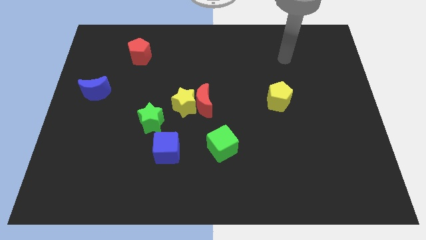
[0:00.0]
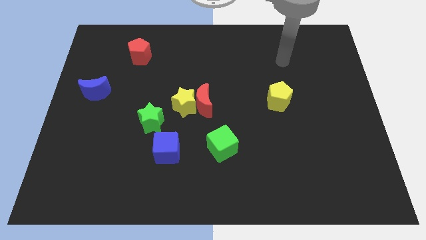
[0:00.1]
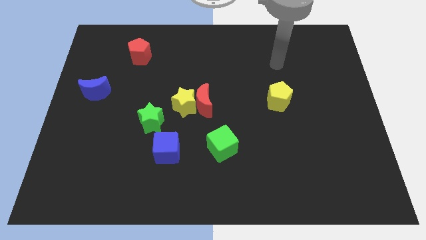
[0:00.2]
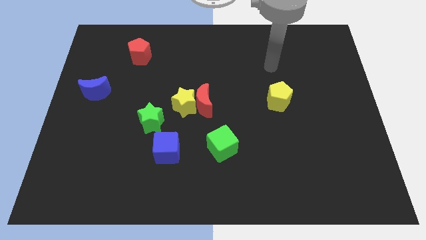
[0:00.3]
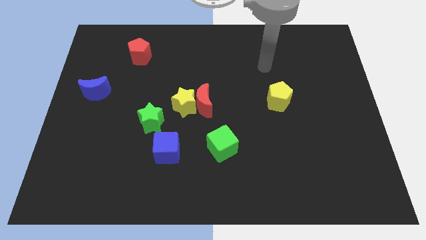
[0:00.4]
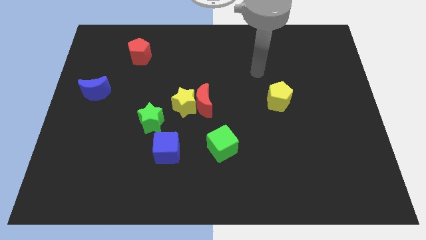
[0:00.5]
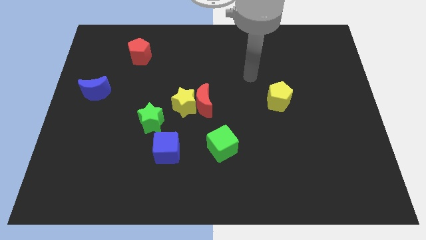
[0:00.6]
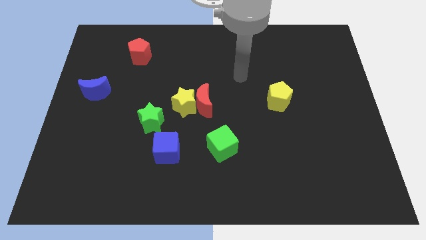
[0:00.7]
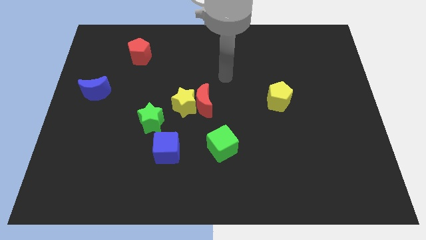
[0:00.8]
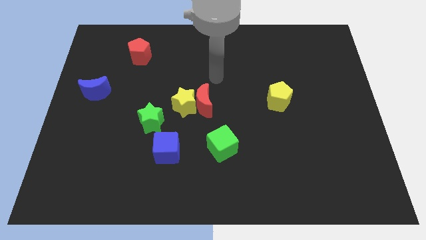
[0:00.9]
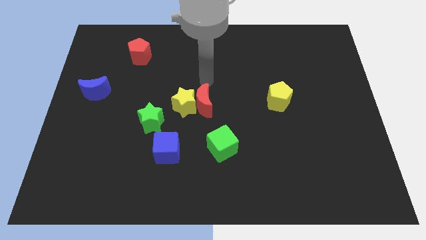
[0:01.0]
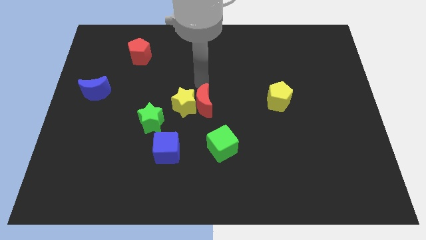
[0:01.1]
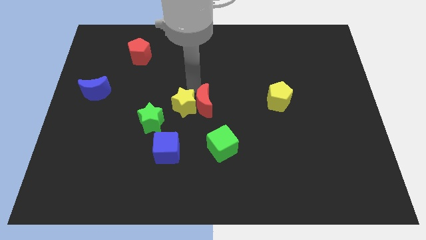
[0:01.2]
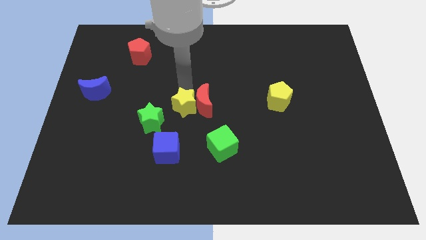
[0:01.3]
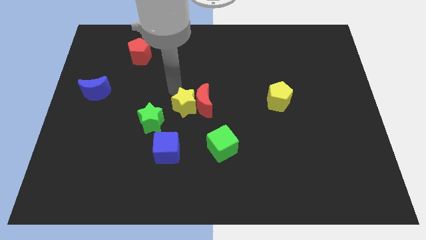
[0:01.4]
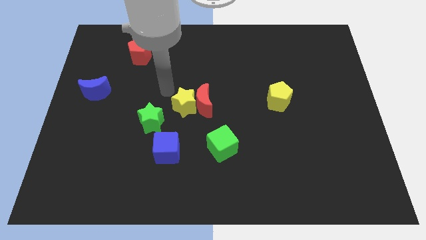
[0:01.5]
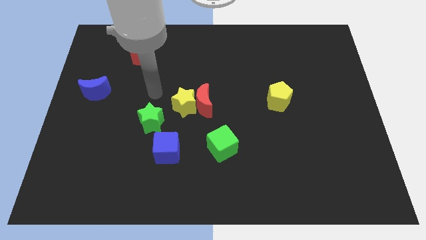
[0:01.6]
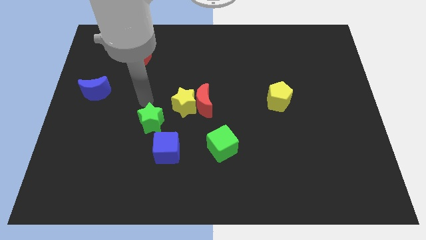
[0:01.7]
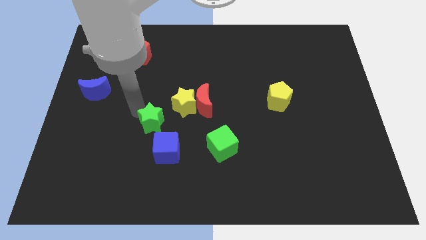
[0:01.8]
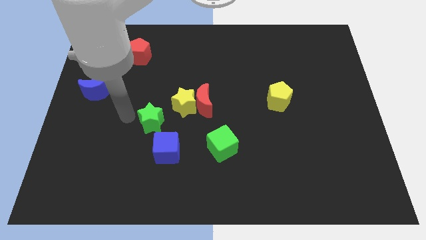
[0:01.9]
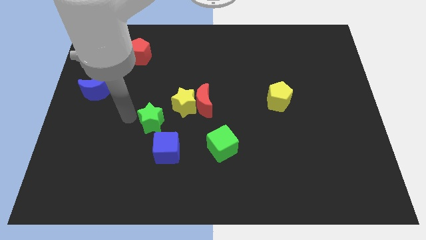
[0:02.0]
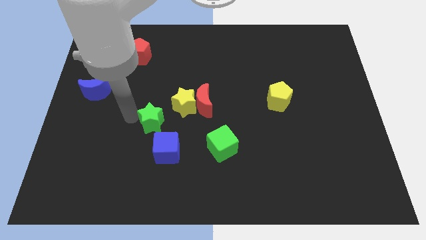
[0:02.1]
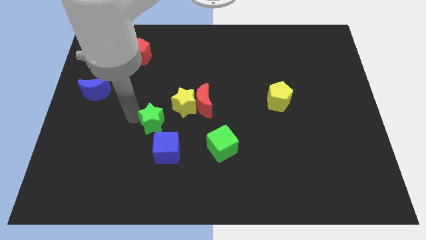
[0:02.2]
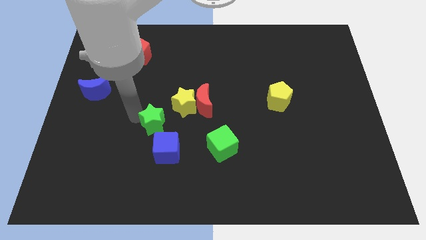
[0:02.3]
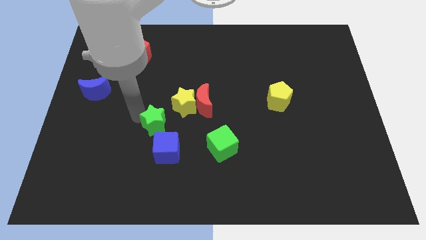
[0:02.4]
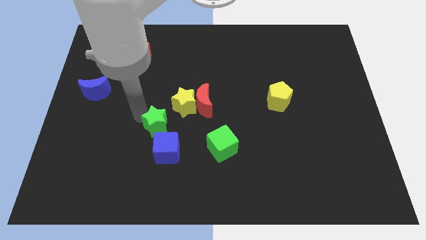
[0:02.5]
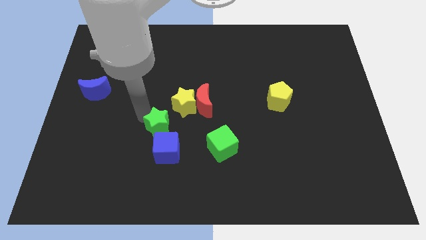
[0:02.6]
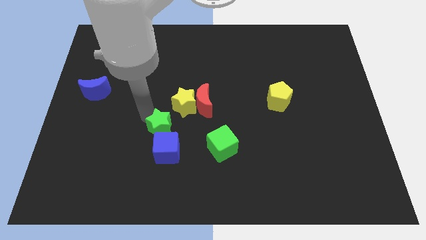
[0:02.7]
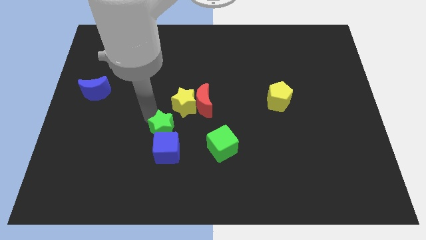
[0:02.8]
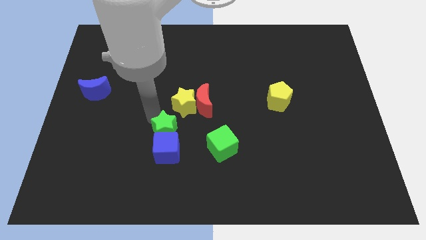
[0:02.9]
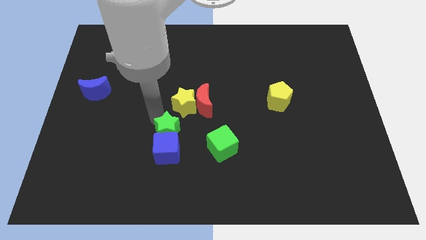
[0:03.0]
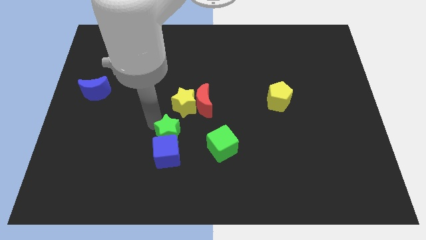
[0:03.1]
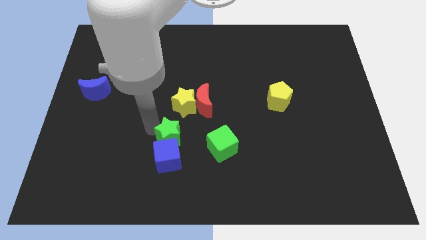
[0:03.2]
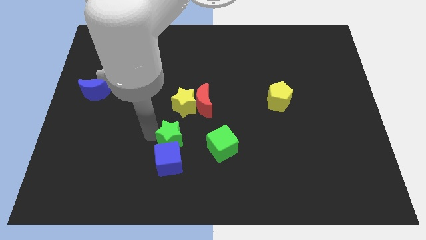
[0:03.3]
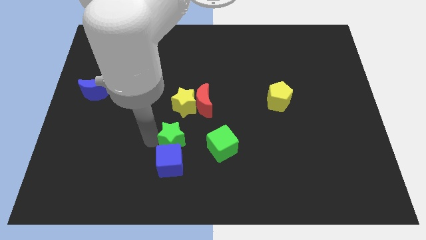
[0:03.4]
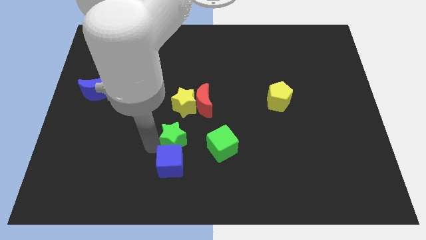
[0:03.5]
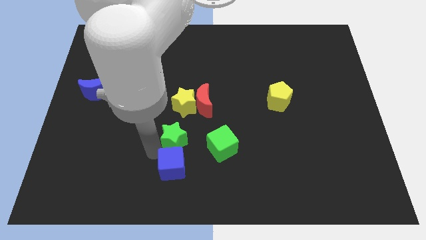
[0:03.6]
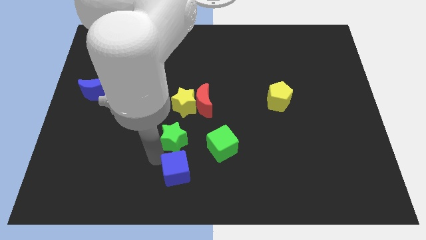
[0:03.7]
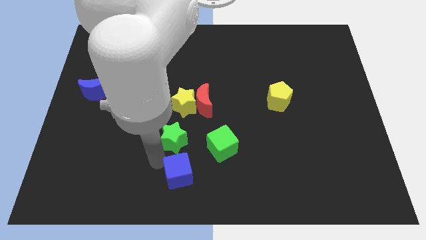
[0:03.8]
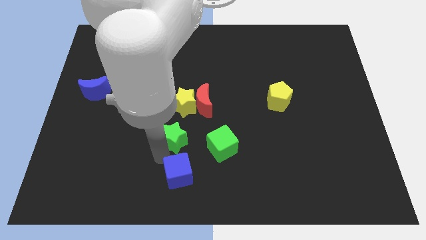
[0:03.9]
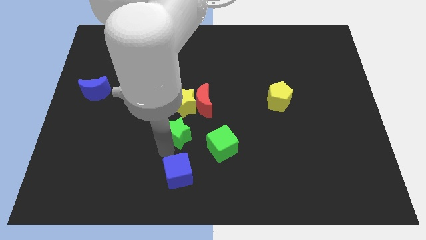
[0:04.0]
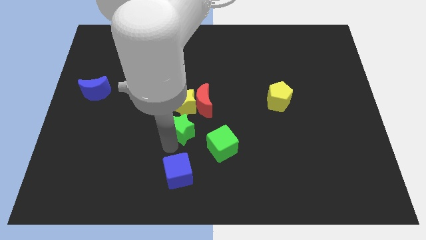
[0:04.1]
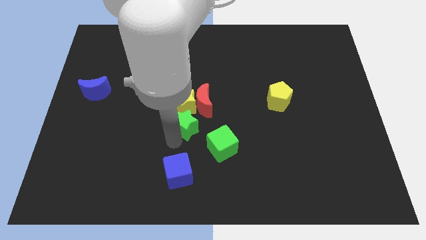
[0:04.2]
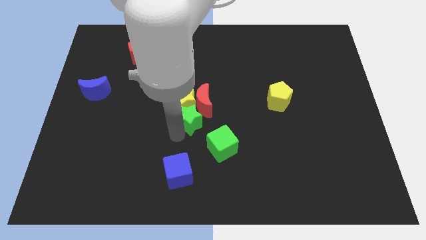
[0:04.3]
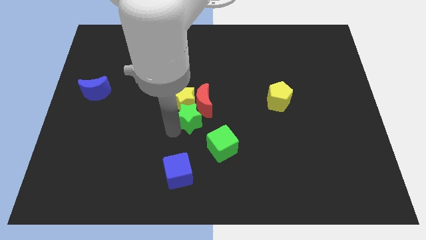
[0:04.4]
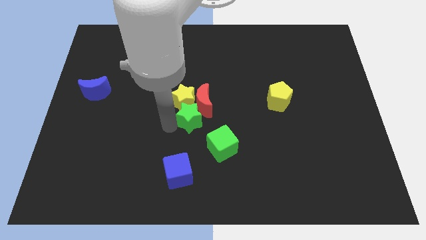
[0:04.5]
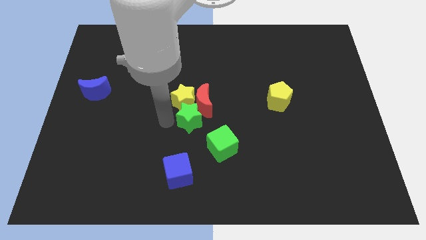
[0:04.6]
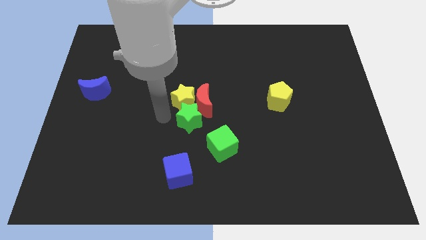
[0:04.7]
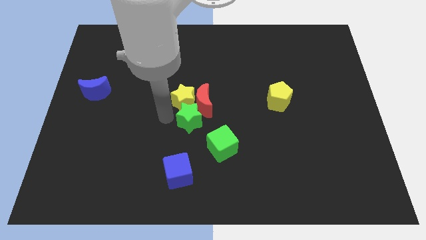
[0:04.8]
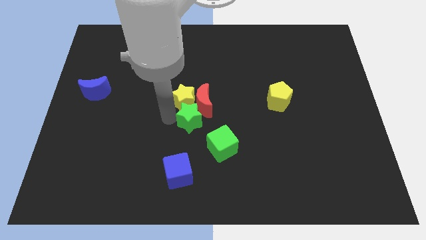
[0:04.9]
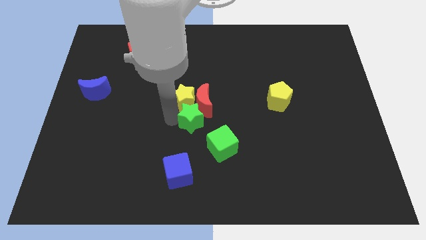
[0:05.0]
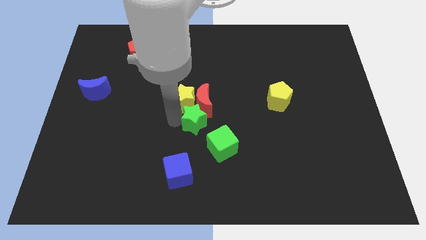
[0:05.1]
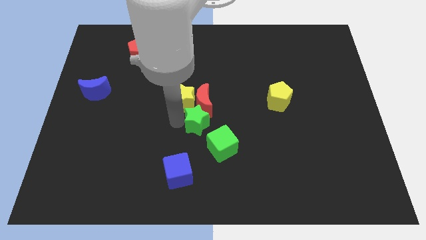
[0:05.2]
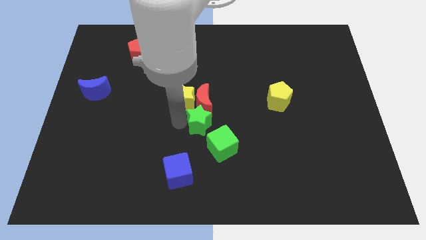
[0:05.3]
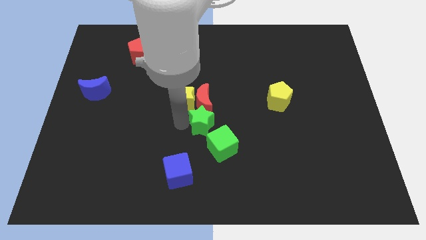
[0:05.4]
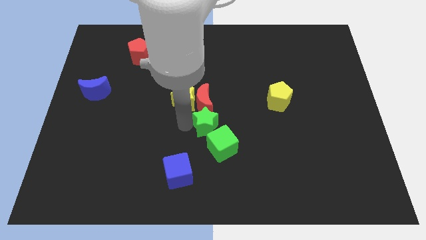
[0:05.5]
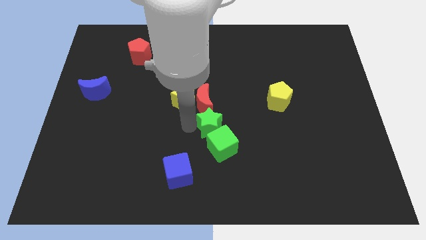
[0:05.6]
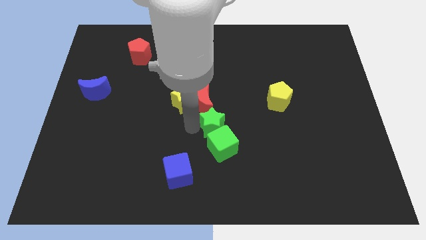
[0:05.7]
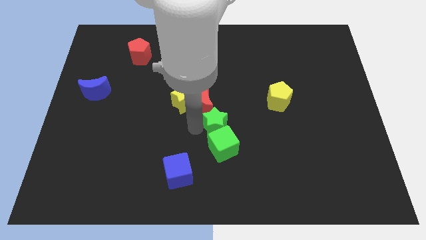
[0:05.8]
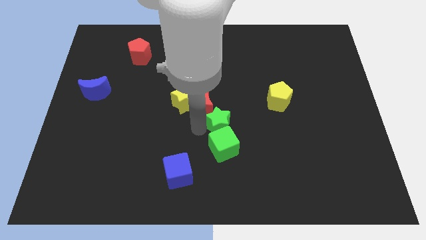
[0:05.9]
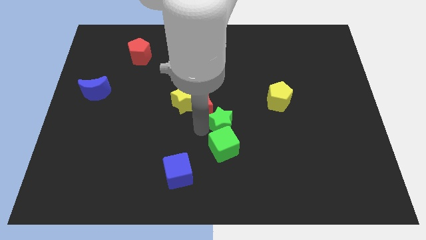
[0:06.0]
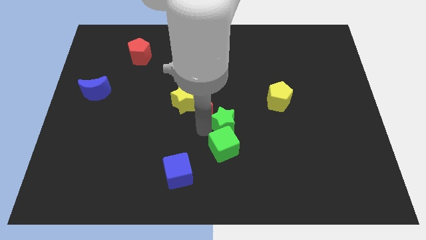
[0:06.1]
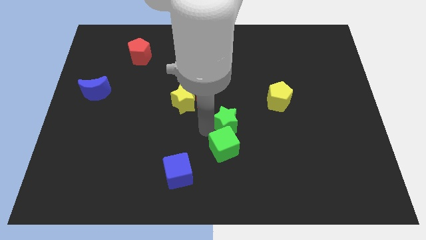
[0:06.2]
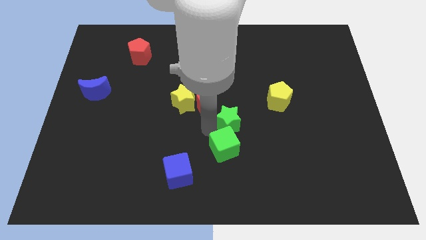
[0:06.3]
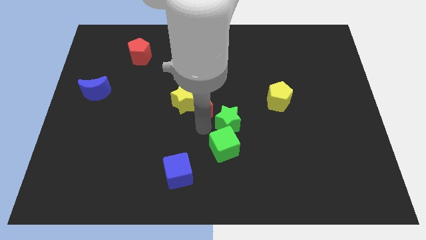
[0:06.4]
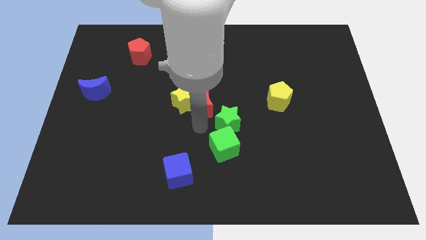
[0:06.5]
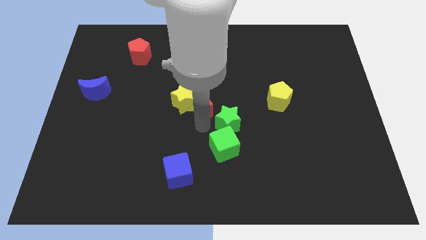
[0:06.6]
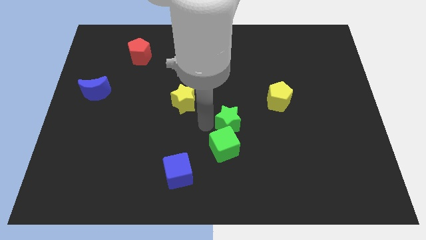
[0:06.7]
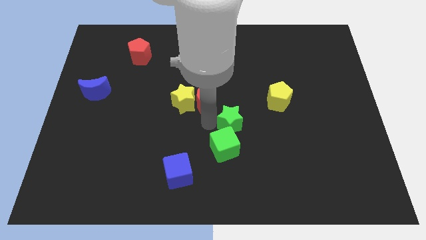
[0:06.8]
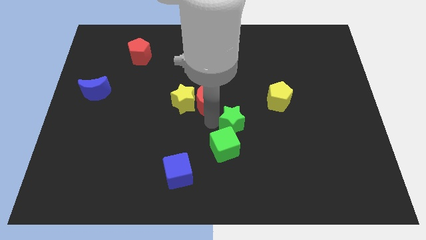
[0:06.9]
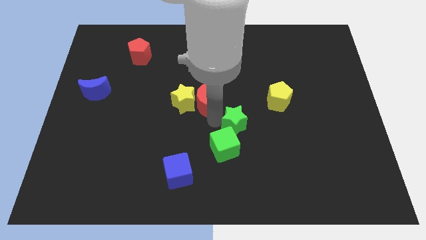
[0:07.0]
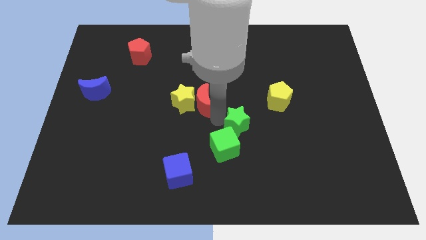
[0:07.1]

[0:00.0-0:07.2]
move the green star diagonally down and to the left of the yellow pentagon
